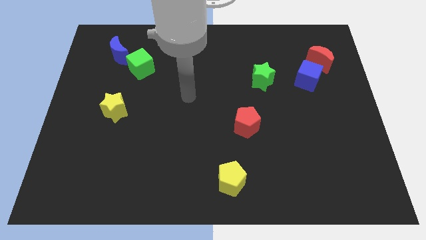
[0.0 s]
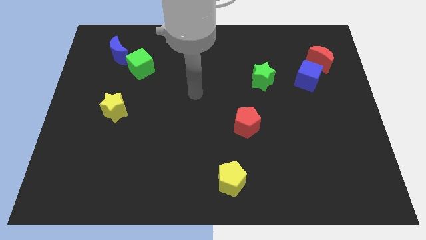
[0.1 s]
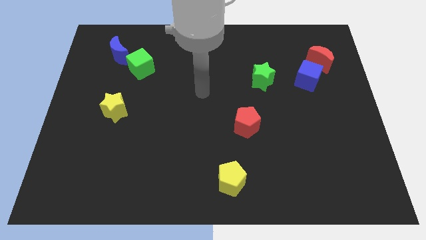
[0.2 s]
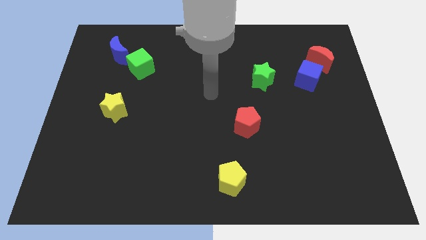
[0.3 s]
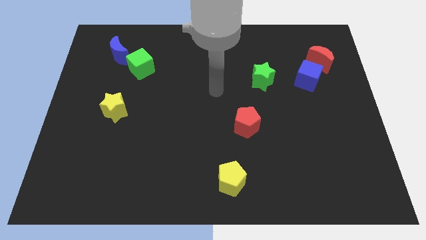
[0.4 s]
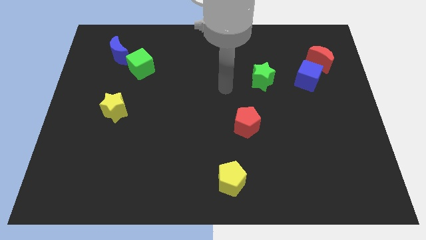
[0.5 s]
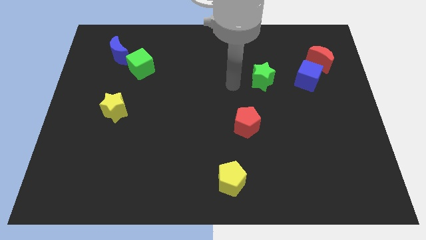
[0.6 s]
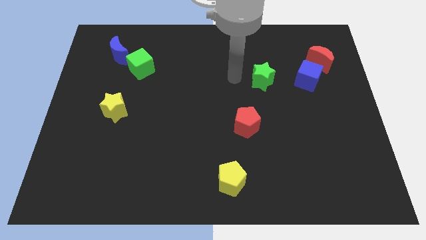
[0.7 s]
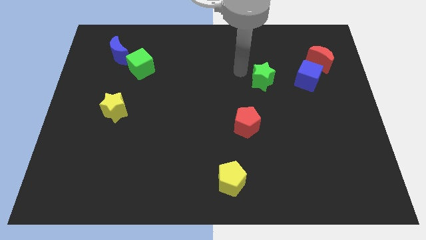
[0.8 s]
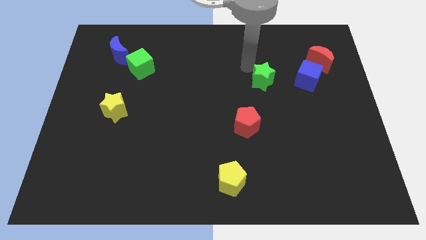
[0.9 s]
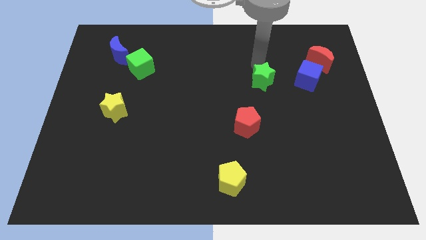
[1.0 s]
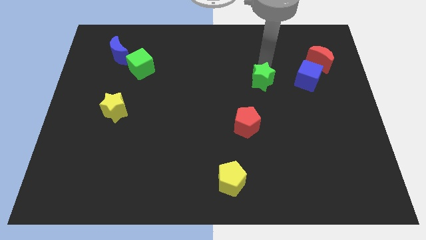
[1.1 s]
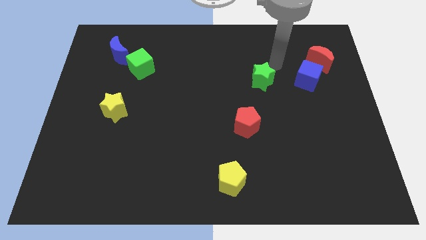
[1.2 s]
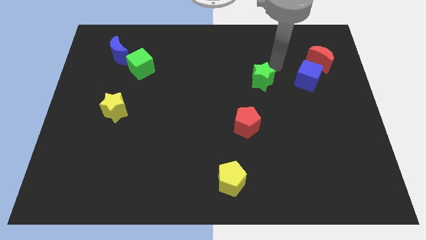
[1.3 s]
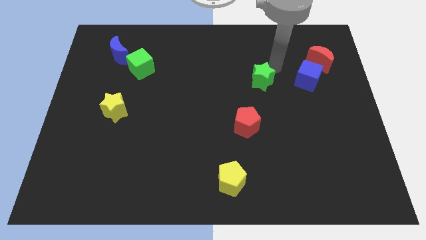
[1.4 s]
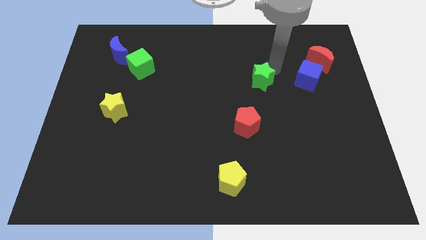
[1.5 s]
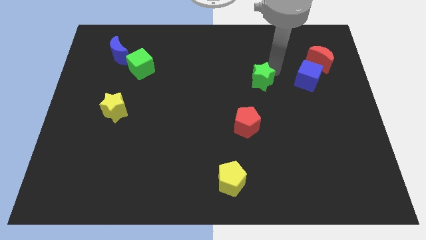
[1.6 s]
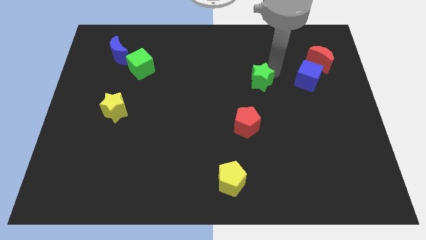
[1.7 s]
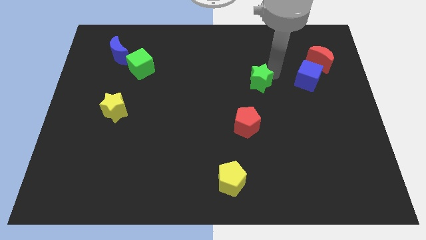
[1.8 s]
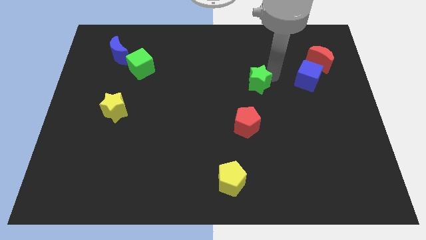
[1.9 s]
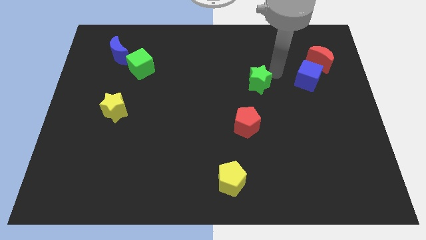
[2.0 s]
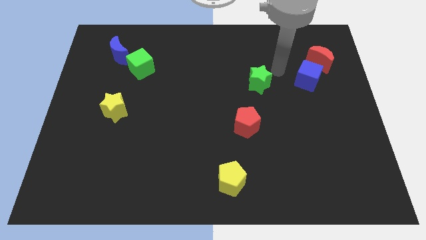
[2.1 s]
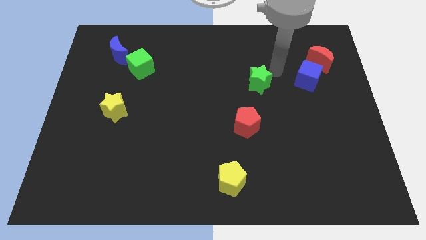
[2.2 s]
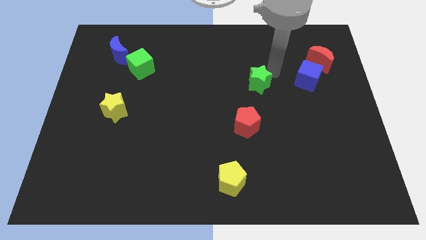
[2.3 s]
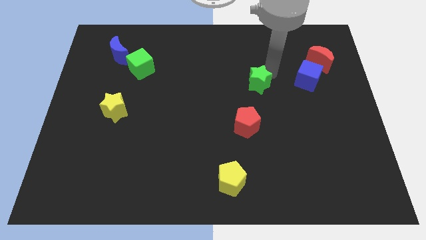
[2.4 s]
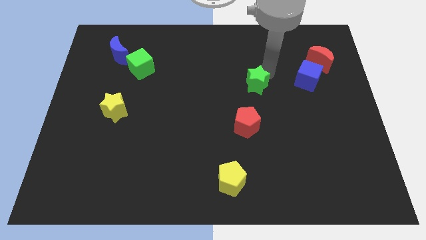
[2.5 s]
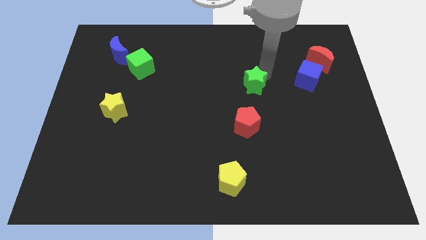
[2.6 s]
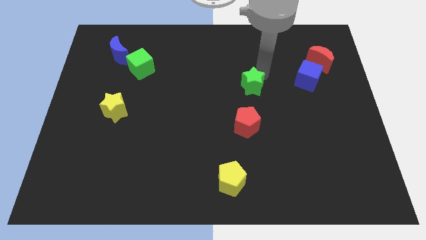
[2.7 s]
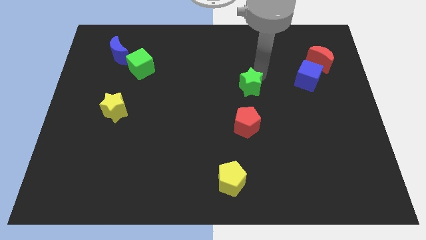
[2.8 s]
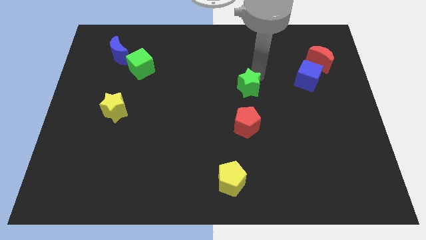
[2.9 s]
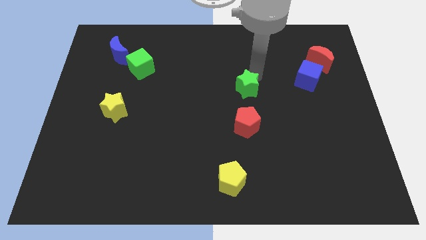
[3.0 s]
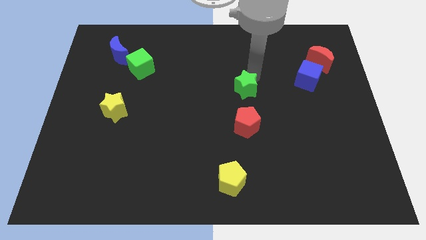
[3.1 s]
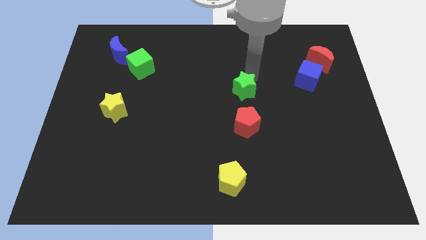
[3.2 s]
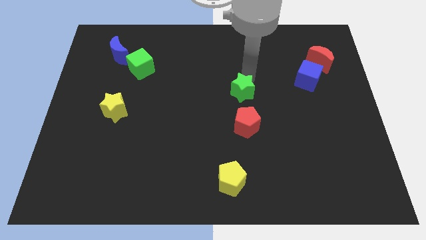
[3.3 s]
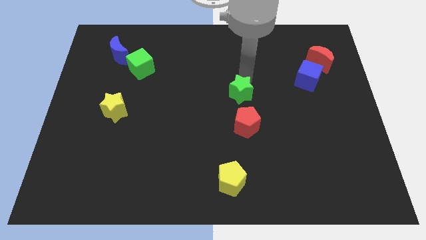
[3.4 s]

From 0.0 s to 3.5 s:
slide the green star down and left diagonally slightly

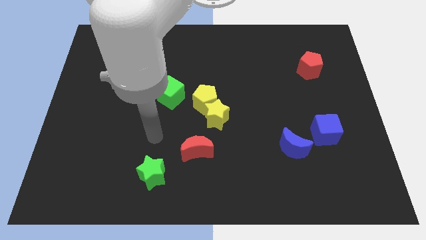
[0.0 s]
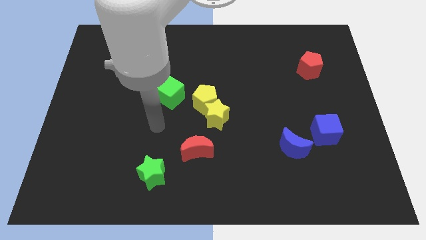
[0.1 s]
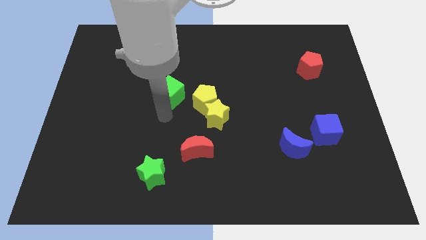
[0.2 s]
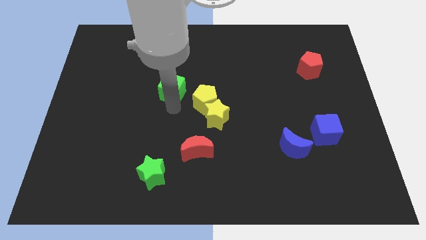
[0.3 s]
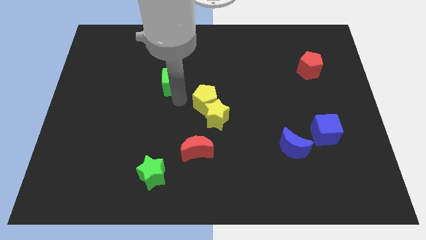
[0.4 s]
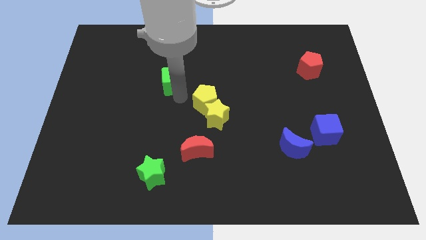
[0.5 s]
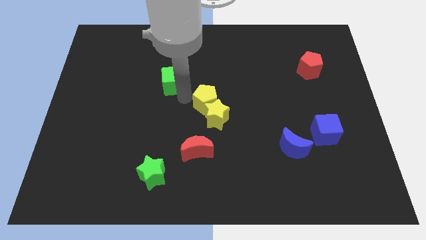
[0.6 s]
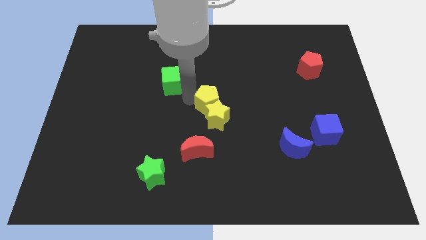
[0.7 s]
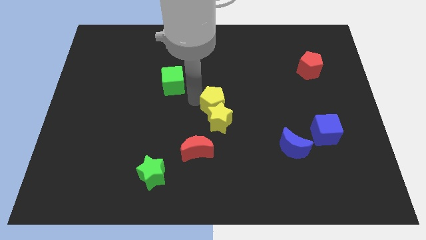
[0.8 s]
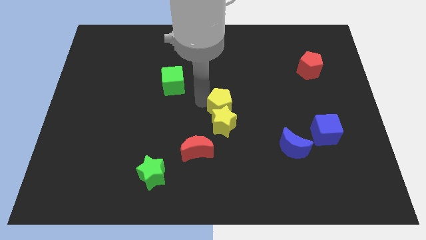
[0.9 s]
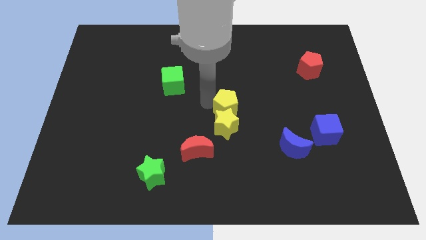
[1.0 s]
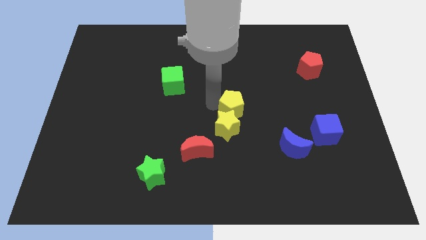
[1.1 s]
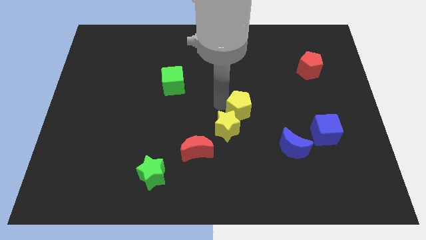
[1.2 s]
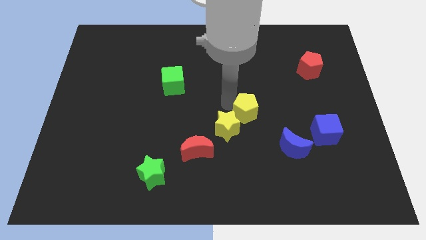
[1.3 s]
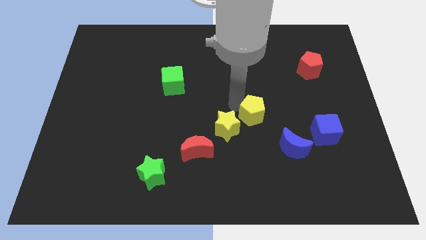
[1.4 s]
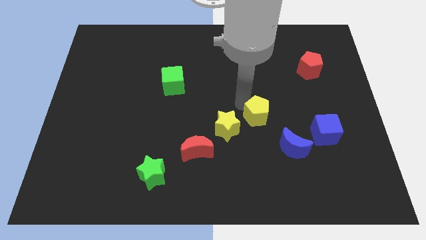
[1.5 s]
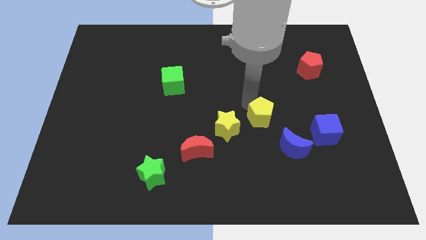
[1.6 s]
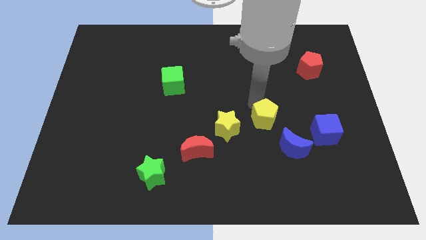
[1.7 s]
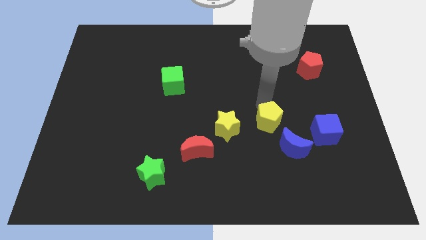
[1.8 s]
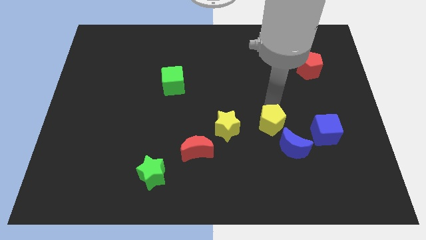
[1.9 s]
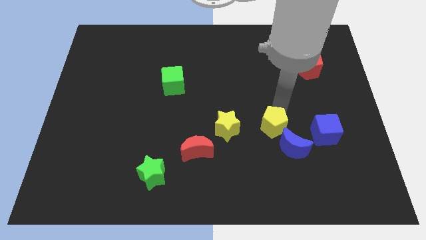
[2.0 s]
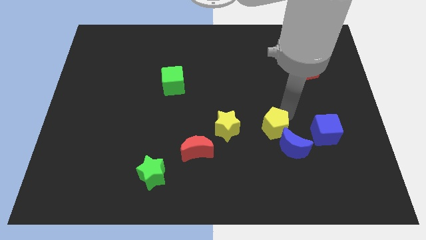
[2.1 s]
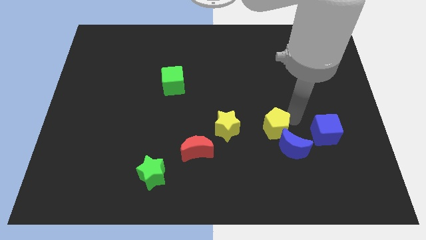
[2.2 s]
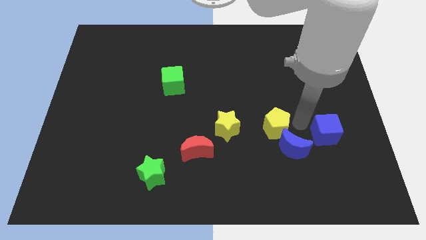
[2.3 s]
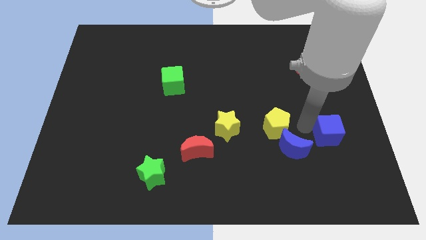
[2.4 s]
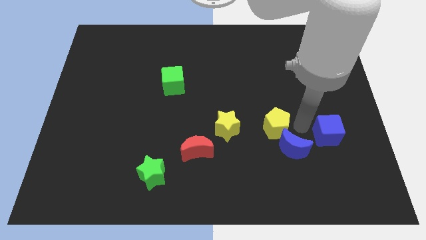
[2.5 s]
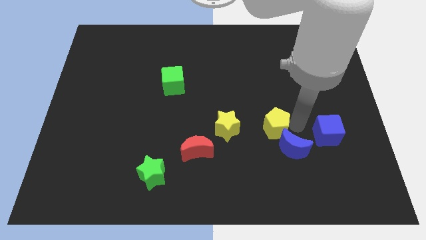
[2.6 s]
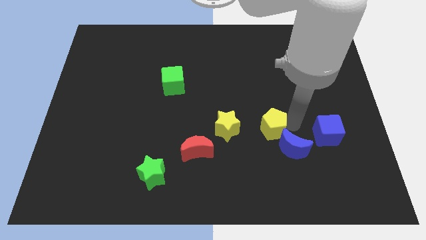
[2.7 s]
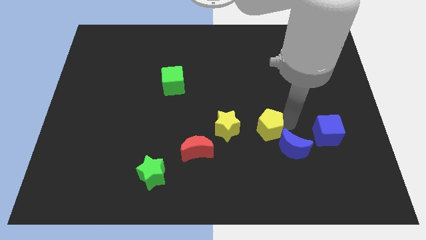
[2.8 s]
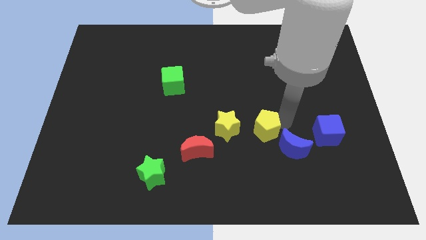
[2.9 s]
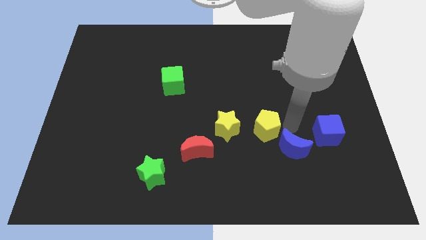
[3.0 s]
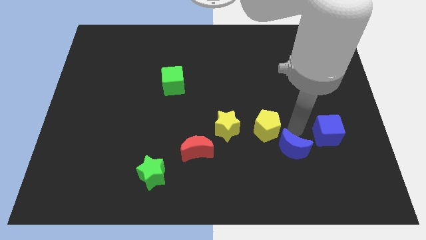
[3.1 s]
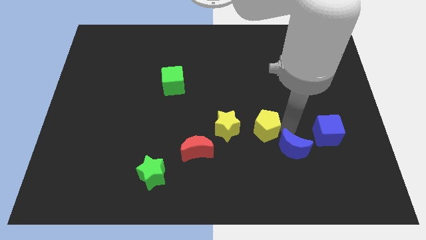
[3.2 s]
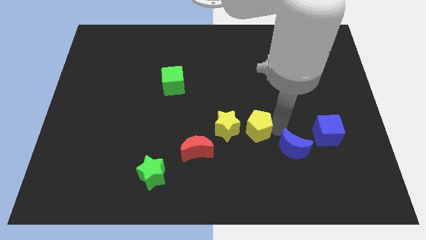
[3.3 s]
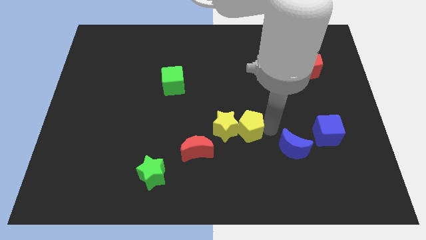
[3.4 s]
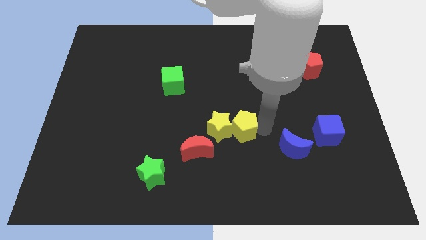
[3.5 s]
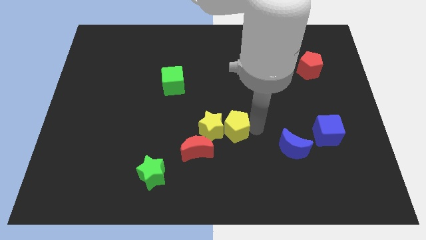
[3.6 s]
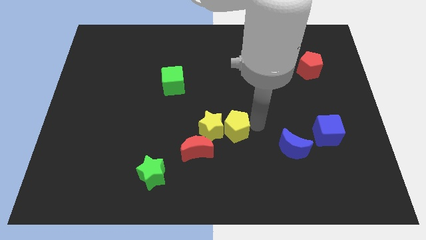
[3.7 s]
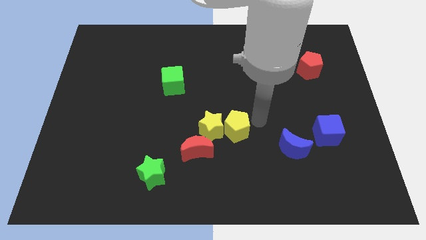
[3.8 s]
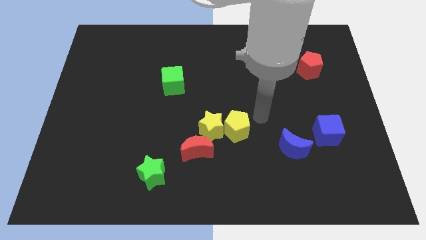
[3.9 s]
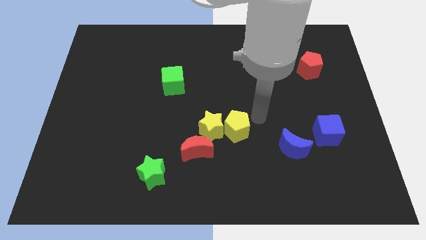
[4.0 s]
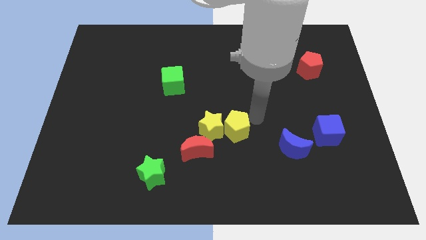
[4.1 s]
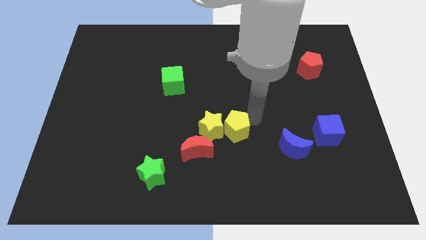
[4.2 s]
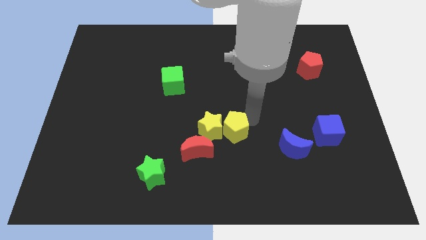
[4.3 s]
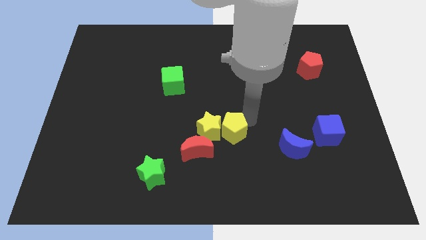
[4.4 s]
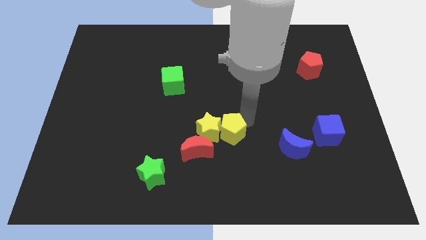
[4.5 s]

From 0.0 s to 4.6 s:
slide the yellow pentagon a bit down

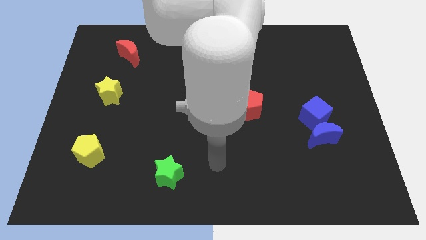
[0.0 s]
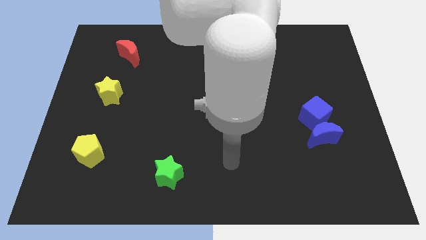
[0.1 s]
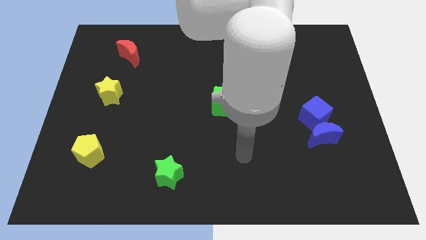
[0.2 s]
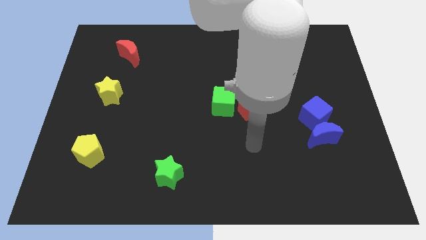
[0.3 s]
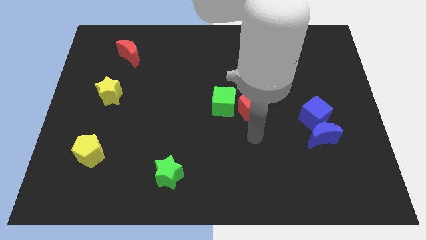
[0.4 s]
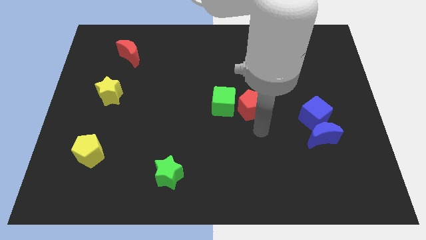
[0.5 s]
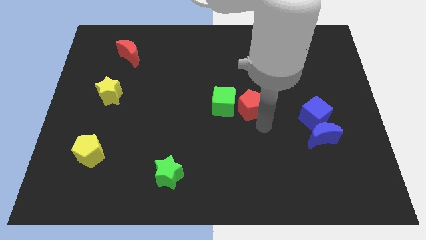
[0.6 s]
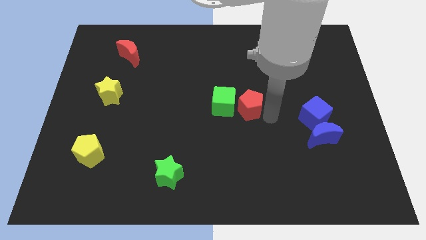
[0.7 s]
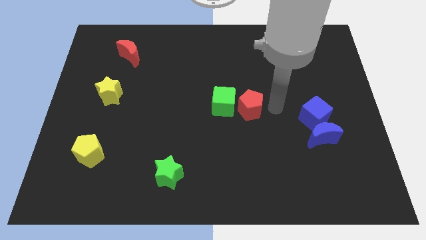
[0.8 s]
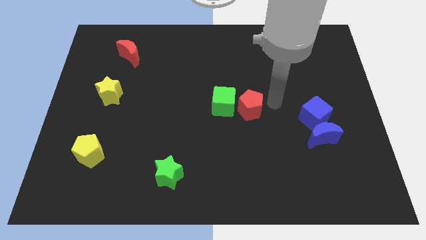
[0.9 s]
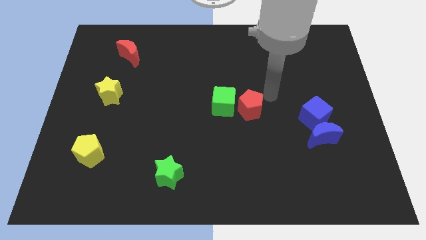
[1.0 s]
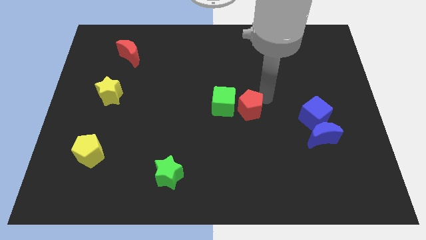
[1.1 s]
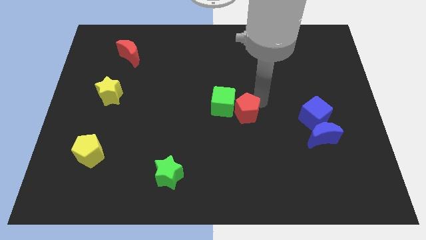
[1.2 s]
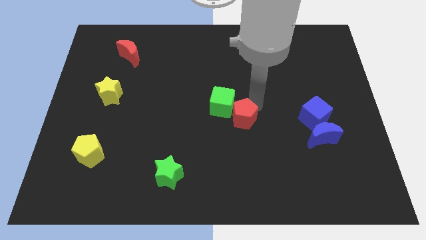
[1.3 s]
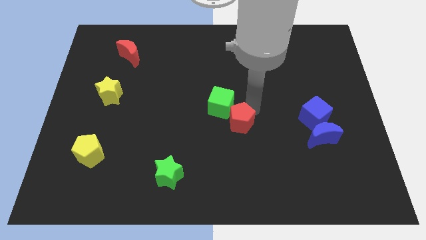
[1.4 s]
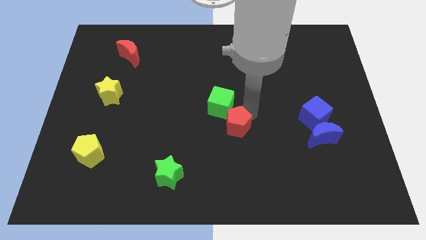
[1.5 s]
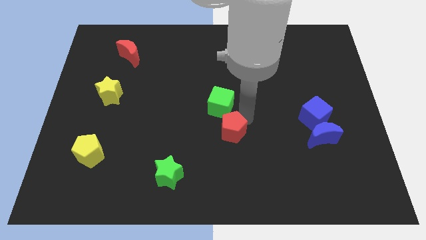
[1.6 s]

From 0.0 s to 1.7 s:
slightly slide the red pentagon down and to the left
